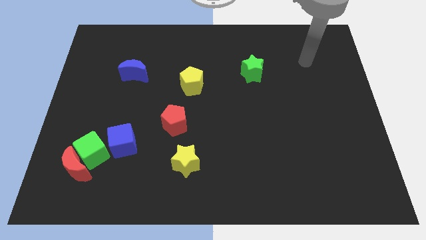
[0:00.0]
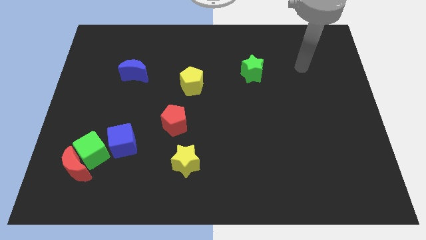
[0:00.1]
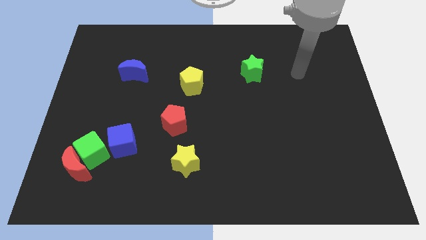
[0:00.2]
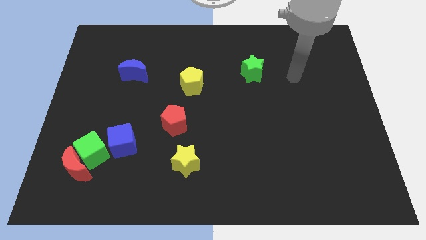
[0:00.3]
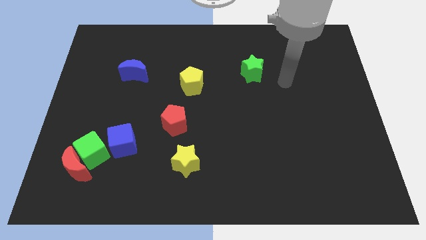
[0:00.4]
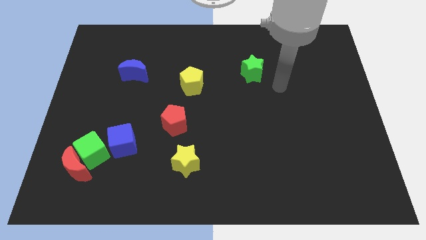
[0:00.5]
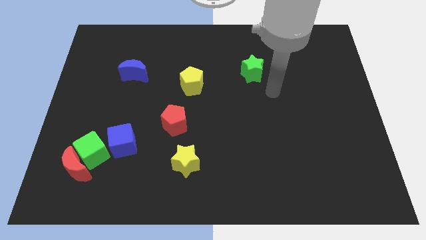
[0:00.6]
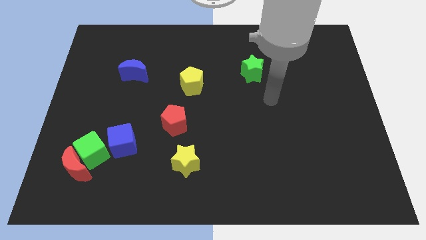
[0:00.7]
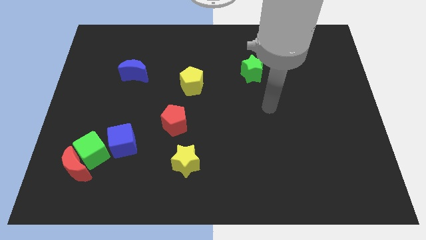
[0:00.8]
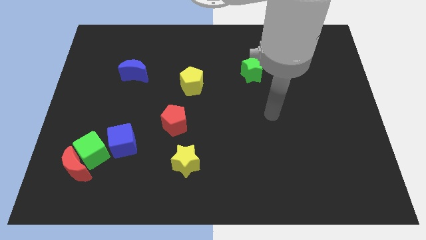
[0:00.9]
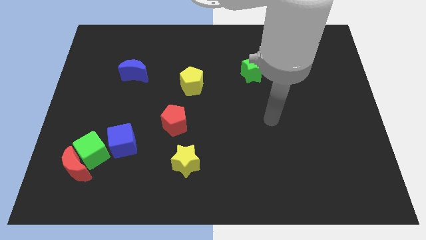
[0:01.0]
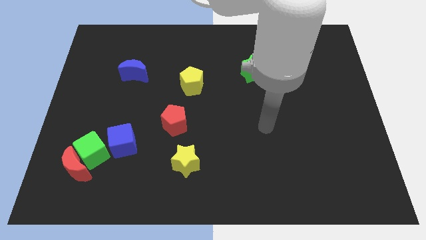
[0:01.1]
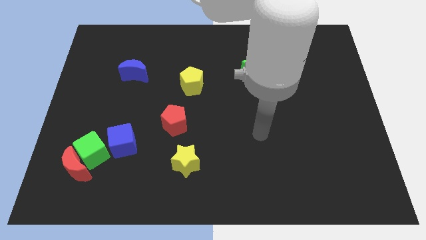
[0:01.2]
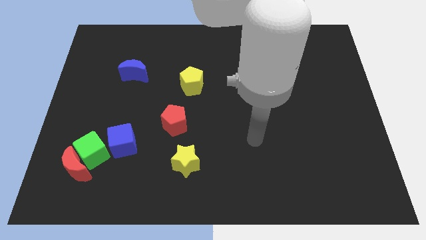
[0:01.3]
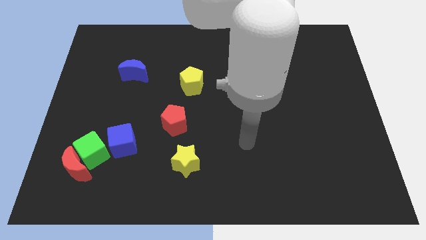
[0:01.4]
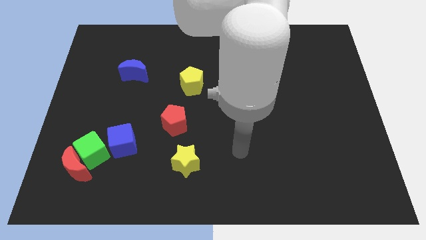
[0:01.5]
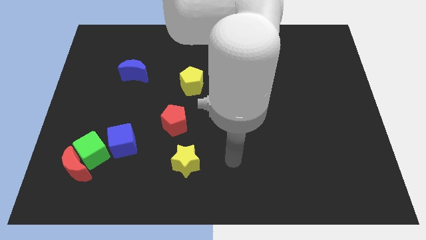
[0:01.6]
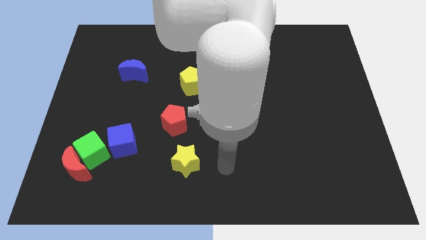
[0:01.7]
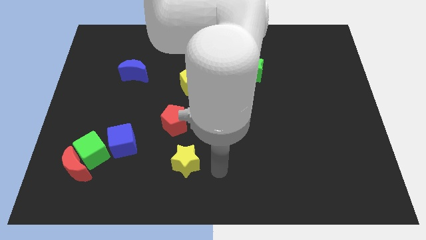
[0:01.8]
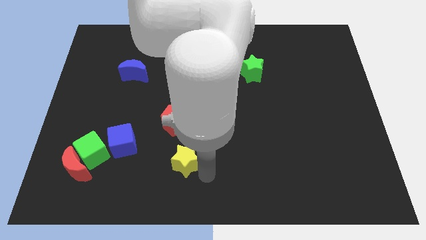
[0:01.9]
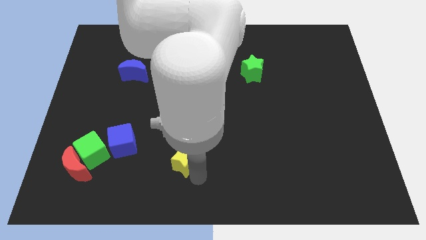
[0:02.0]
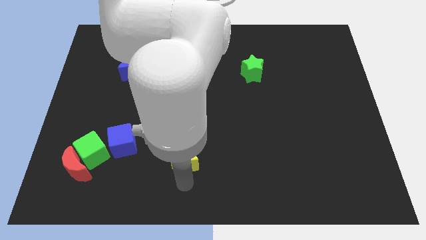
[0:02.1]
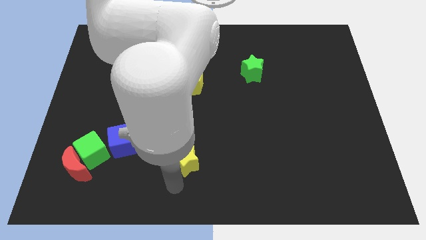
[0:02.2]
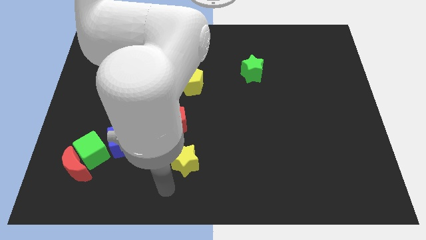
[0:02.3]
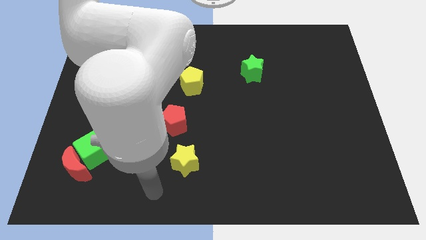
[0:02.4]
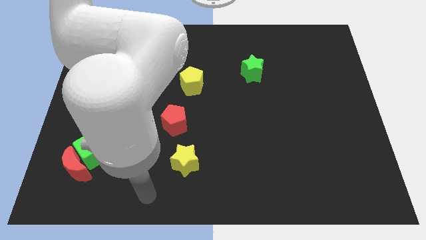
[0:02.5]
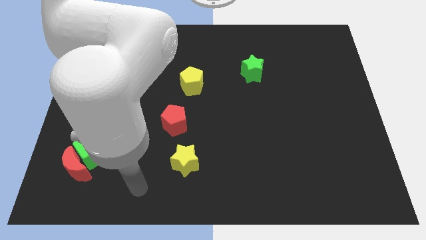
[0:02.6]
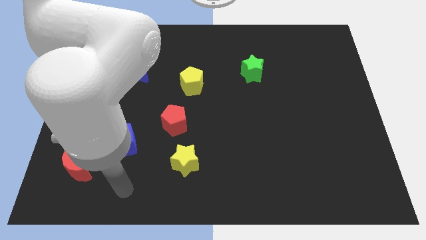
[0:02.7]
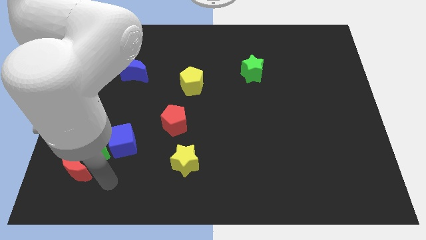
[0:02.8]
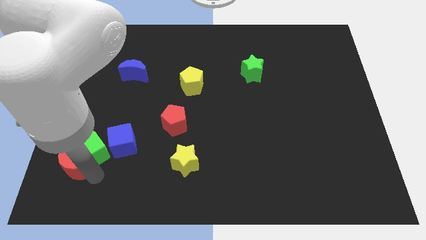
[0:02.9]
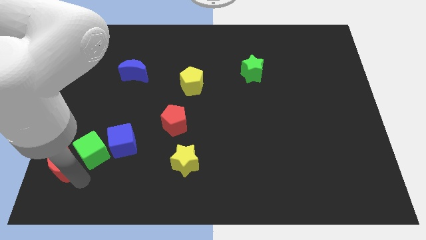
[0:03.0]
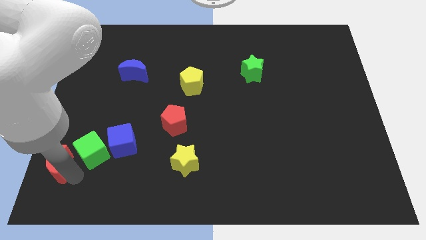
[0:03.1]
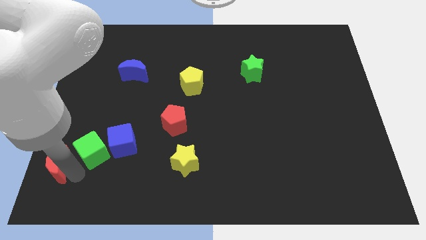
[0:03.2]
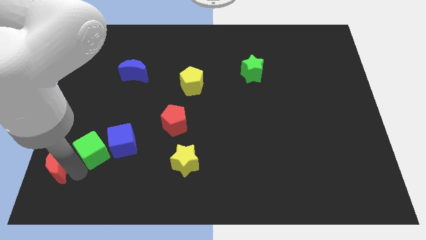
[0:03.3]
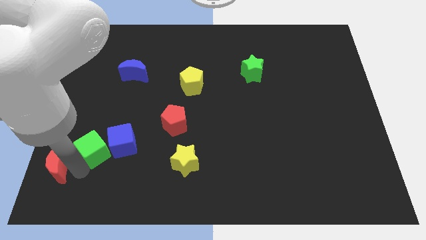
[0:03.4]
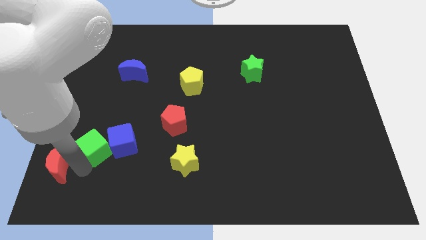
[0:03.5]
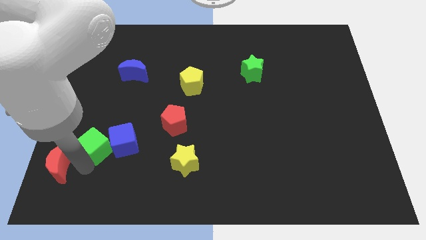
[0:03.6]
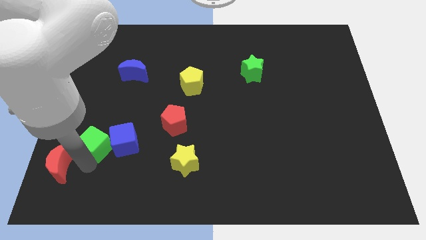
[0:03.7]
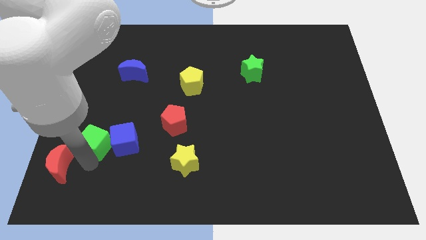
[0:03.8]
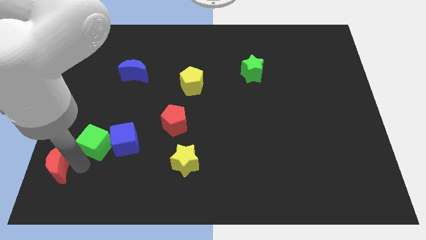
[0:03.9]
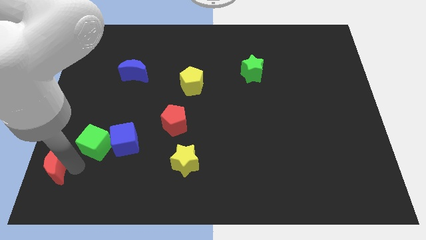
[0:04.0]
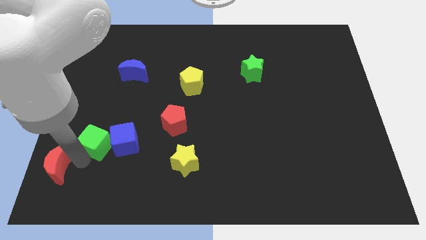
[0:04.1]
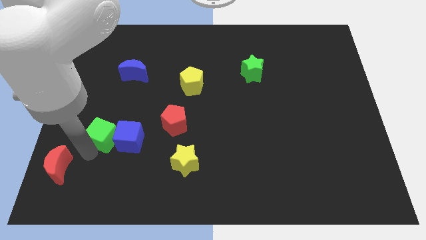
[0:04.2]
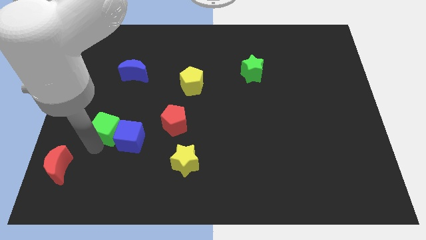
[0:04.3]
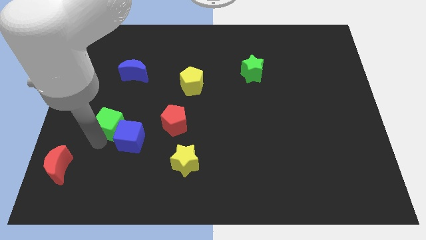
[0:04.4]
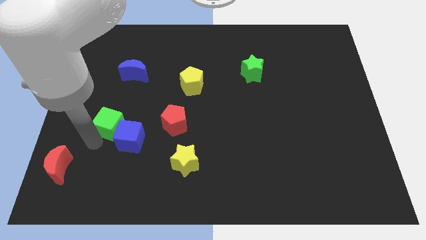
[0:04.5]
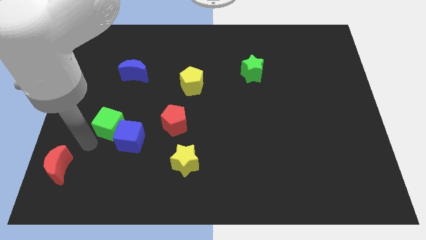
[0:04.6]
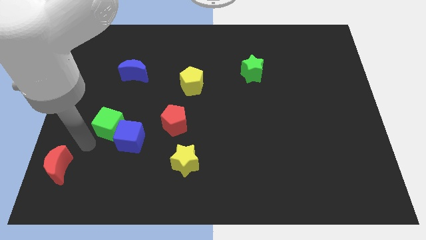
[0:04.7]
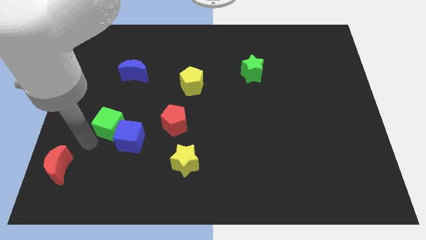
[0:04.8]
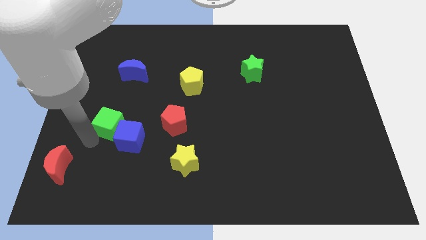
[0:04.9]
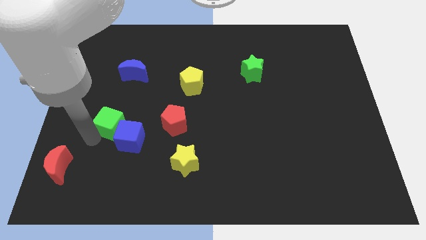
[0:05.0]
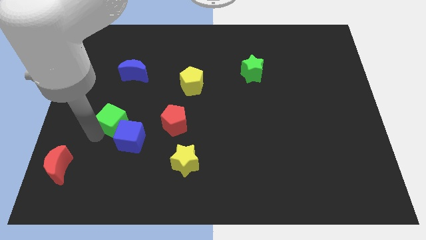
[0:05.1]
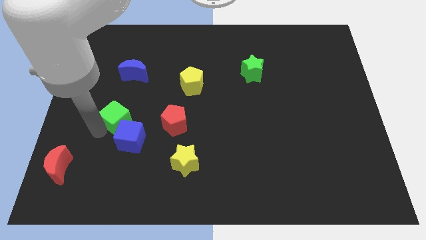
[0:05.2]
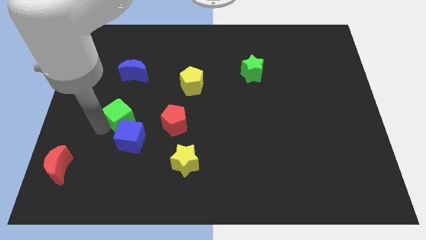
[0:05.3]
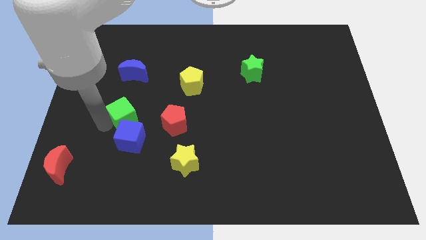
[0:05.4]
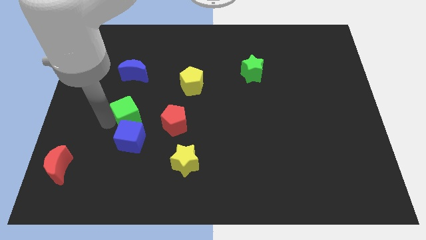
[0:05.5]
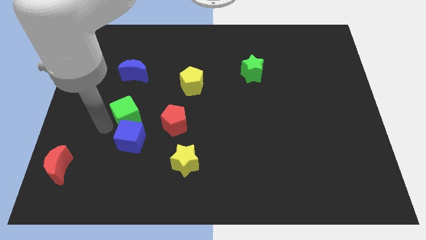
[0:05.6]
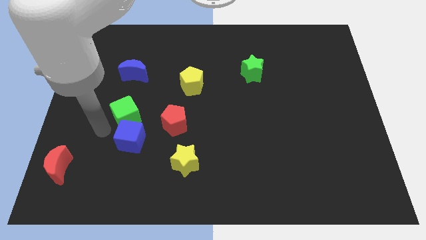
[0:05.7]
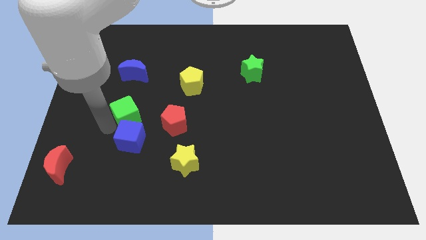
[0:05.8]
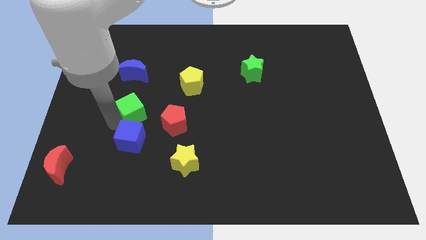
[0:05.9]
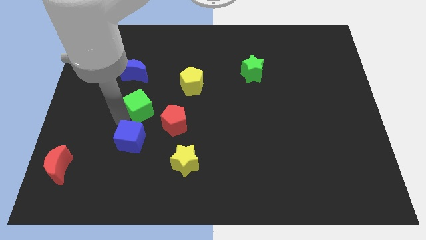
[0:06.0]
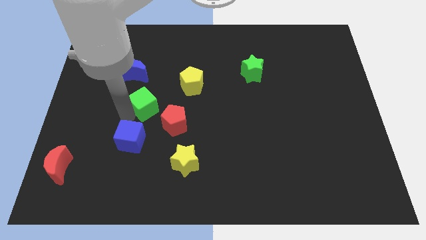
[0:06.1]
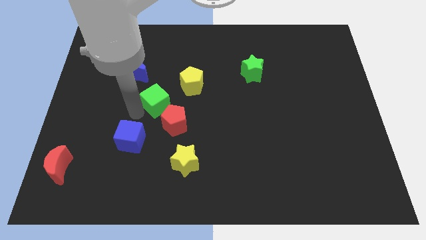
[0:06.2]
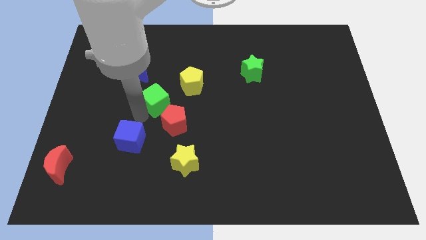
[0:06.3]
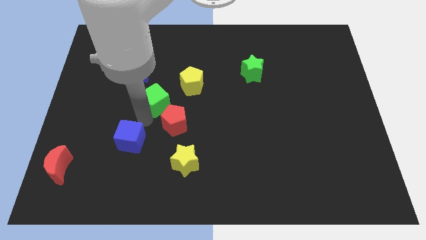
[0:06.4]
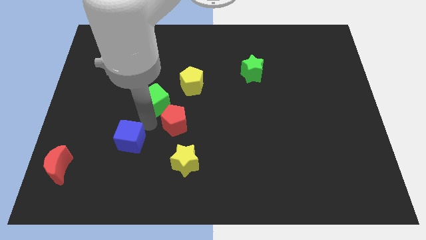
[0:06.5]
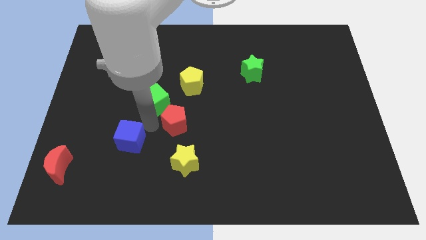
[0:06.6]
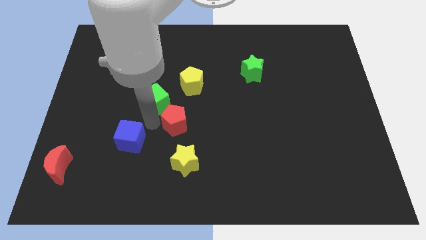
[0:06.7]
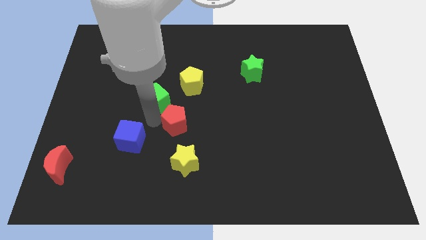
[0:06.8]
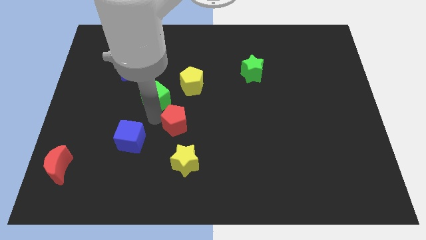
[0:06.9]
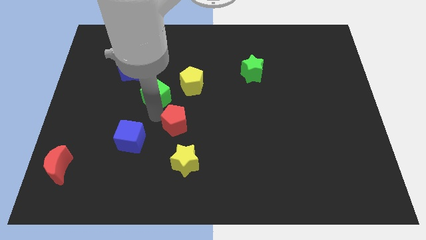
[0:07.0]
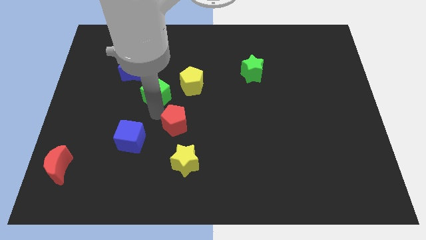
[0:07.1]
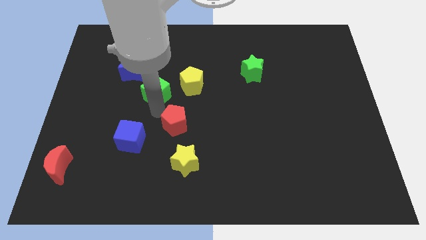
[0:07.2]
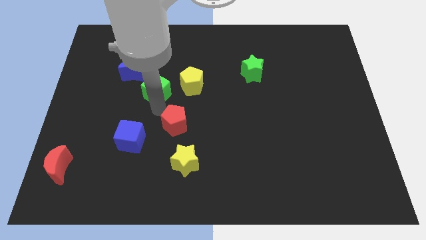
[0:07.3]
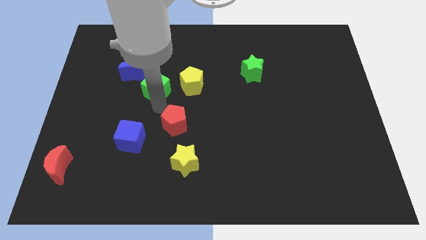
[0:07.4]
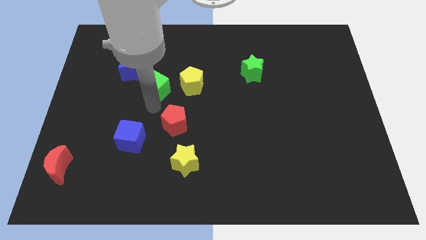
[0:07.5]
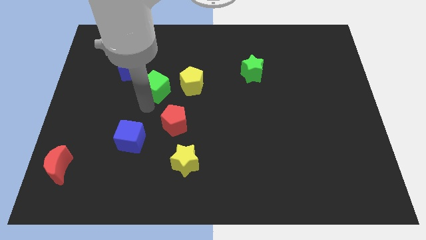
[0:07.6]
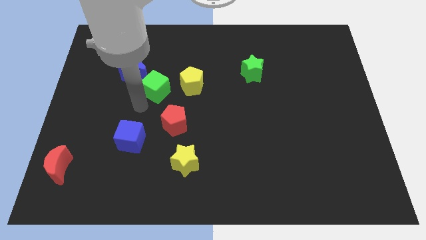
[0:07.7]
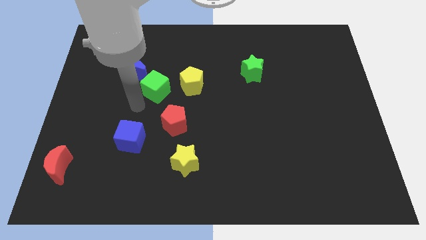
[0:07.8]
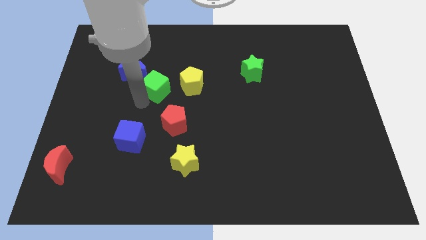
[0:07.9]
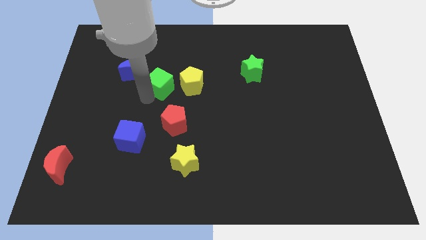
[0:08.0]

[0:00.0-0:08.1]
slide the green cube right of the blue moon
